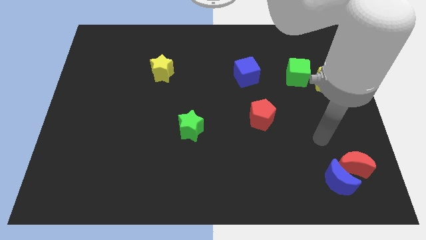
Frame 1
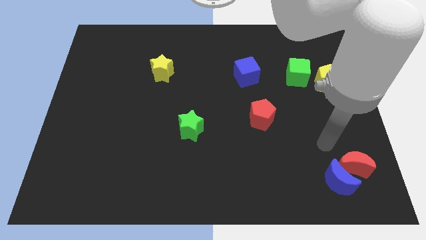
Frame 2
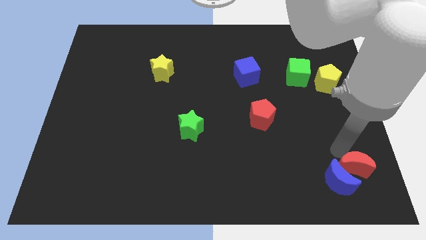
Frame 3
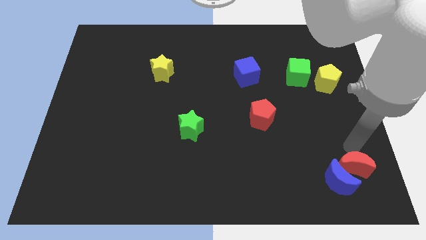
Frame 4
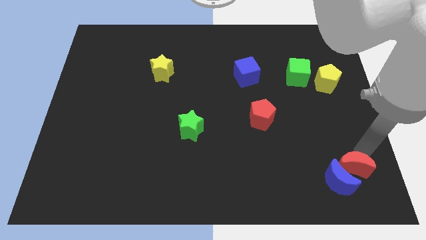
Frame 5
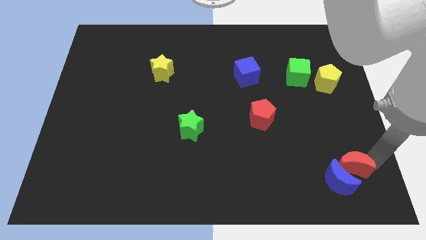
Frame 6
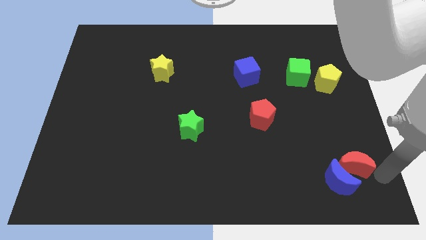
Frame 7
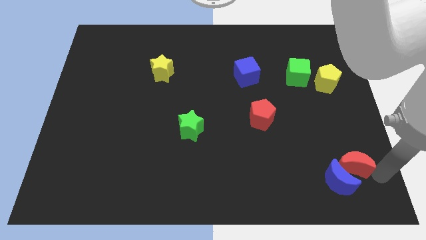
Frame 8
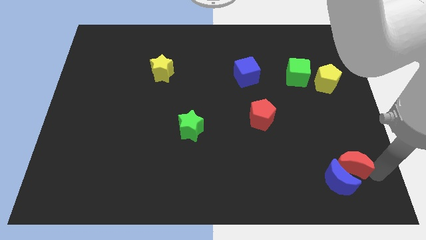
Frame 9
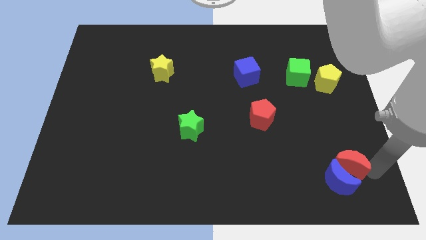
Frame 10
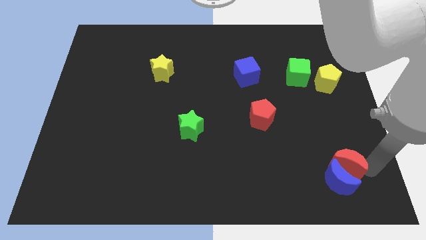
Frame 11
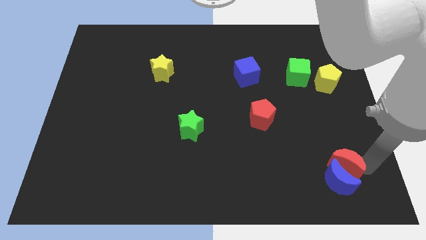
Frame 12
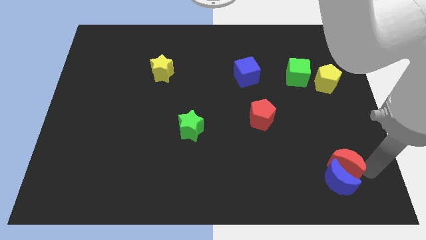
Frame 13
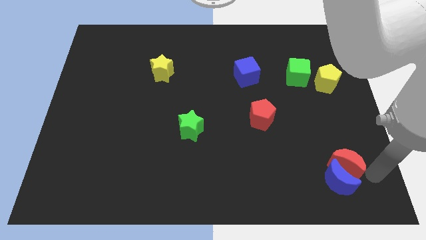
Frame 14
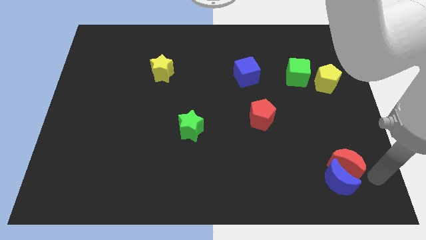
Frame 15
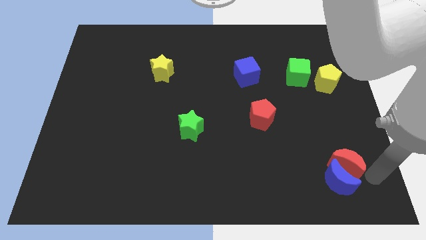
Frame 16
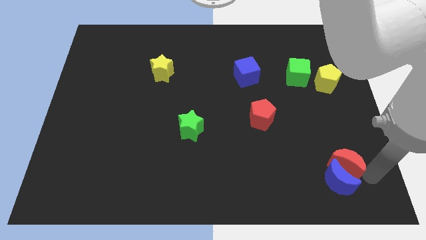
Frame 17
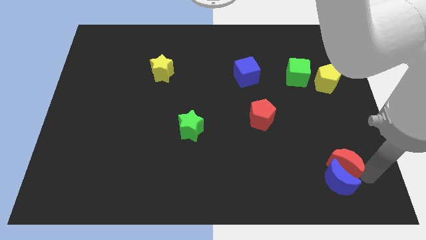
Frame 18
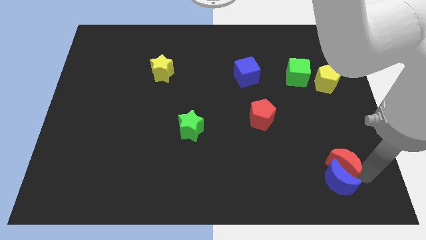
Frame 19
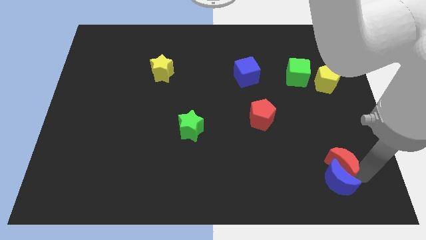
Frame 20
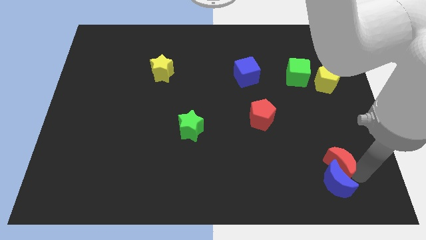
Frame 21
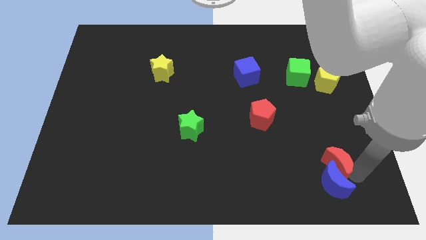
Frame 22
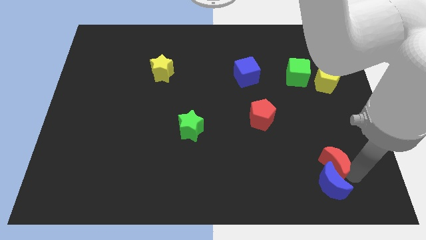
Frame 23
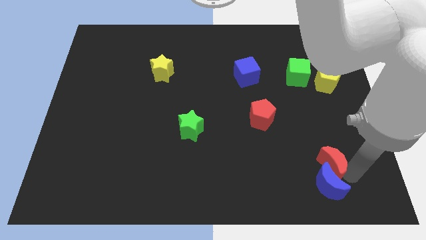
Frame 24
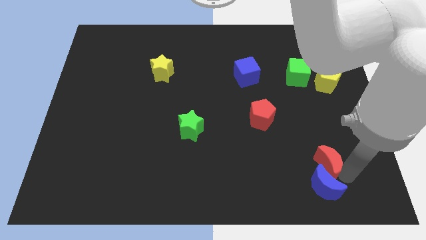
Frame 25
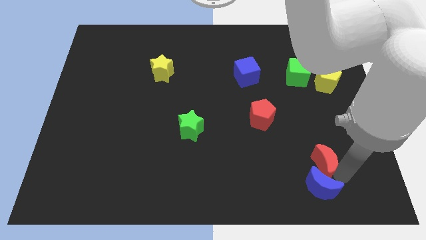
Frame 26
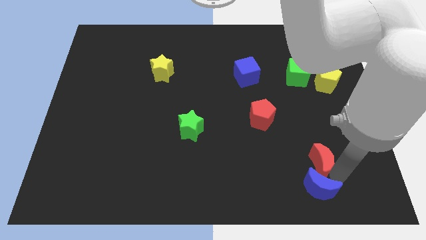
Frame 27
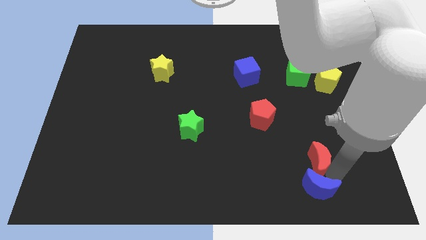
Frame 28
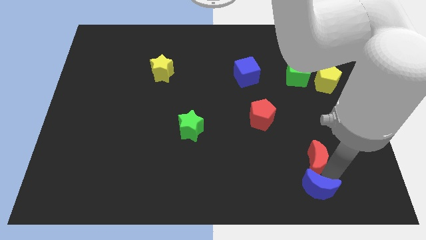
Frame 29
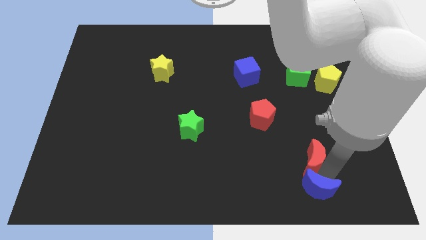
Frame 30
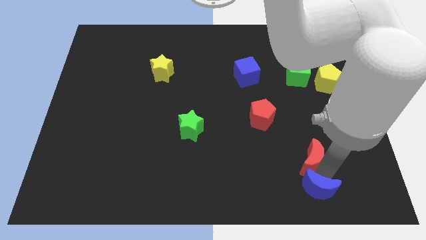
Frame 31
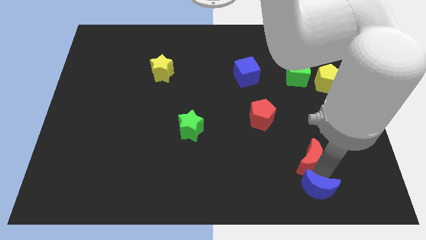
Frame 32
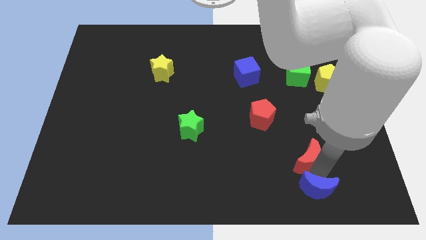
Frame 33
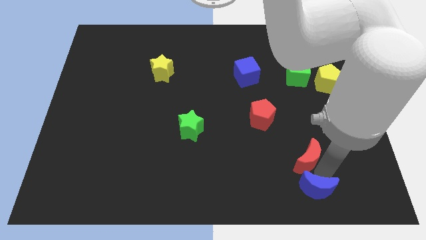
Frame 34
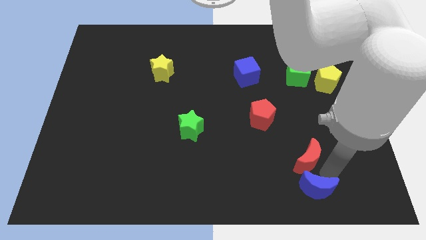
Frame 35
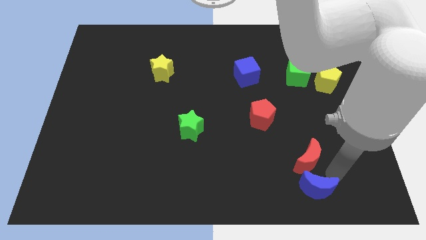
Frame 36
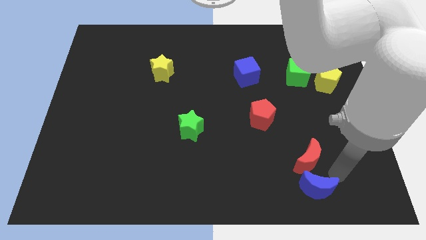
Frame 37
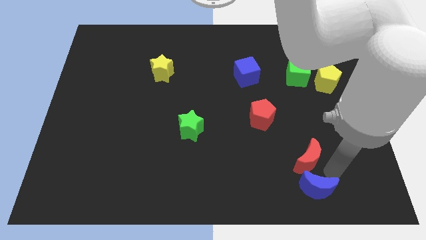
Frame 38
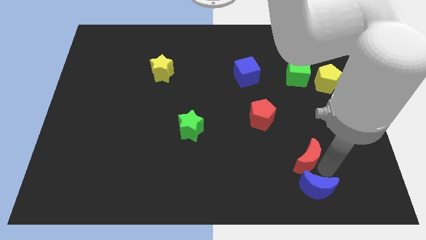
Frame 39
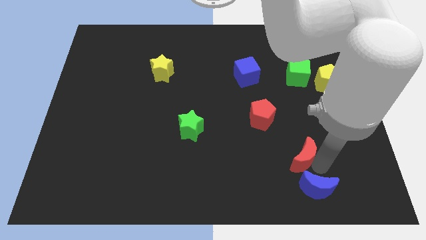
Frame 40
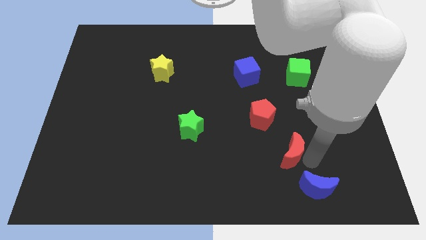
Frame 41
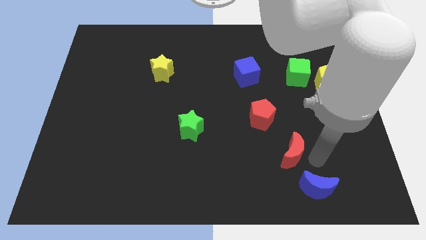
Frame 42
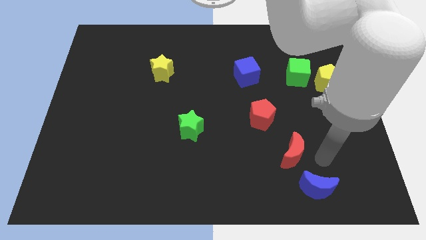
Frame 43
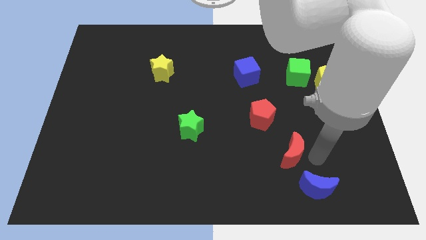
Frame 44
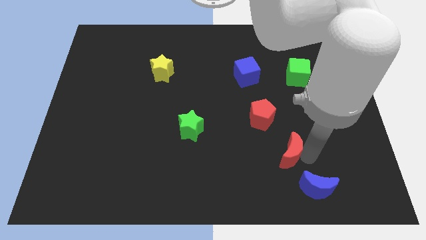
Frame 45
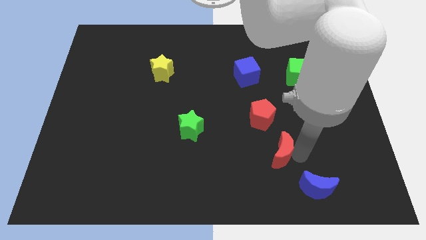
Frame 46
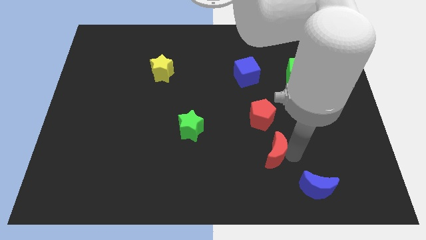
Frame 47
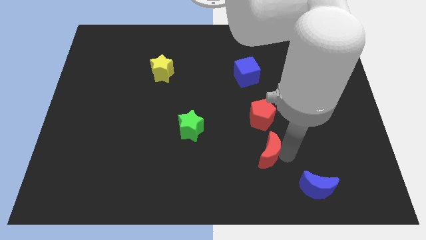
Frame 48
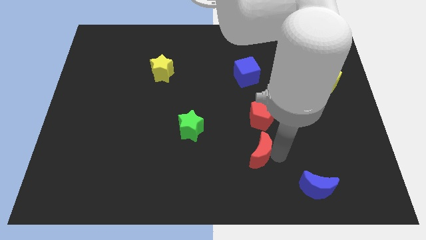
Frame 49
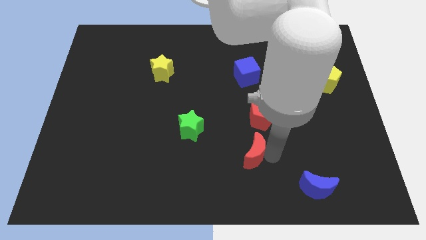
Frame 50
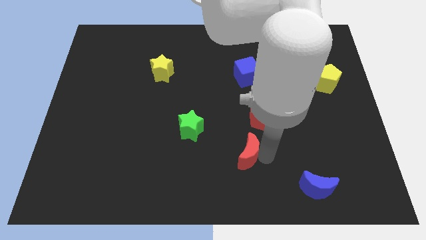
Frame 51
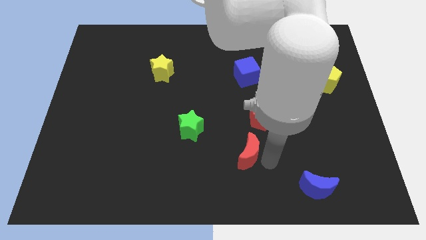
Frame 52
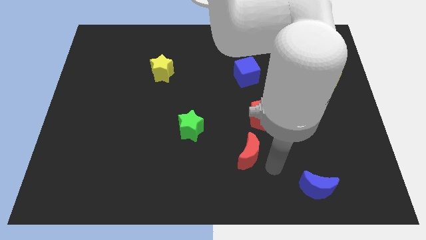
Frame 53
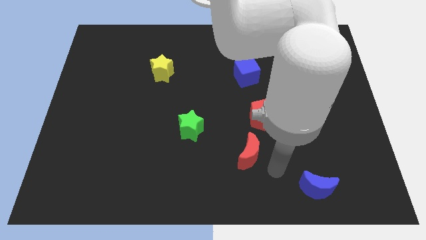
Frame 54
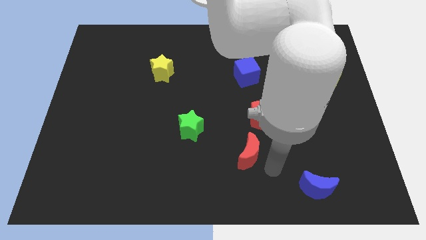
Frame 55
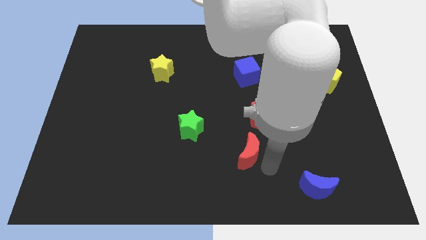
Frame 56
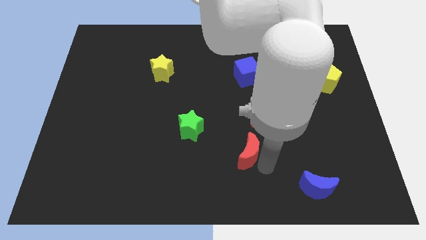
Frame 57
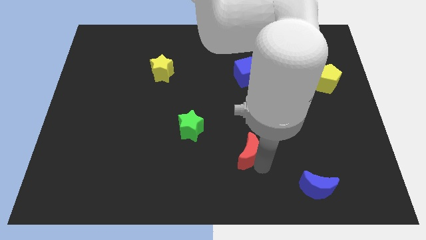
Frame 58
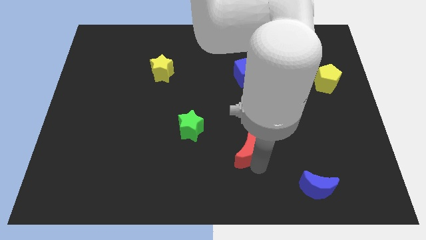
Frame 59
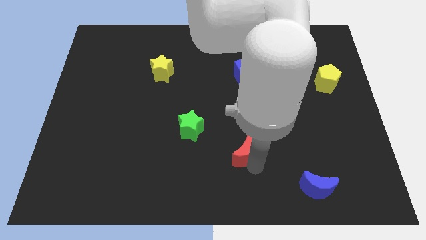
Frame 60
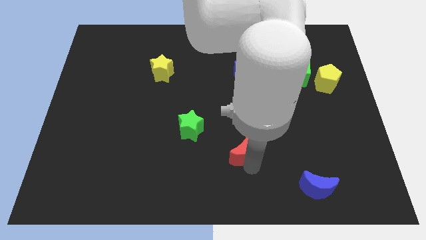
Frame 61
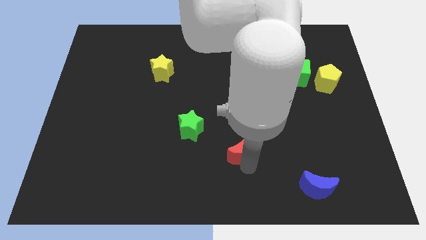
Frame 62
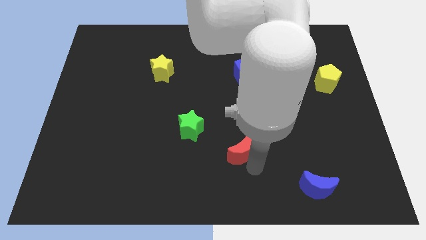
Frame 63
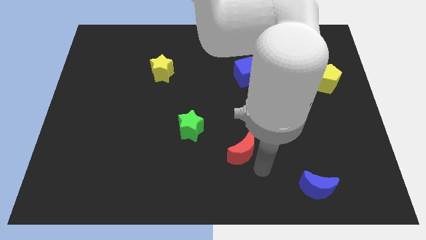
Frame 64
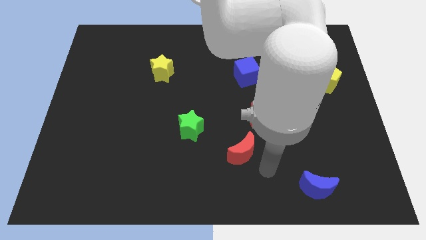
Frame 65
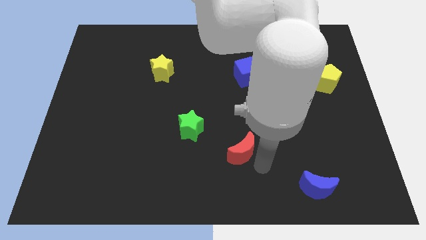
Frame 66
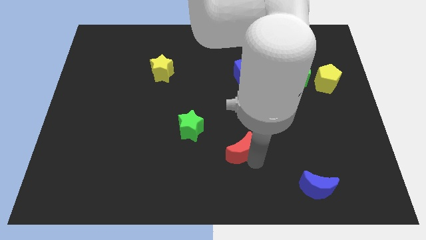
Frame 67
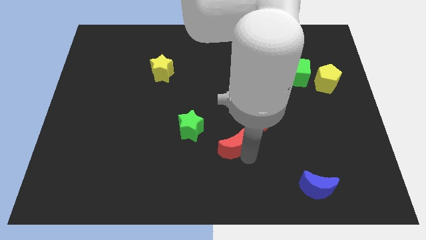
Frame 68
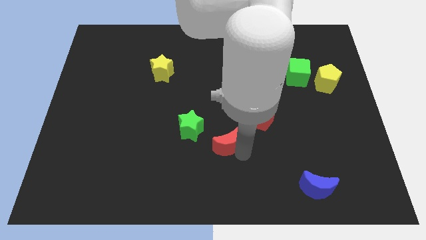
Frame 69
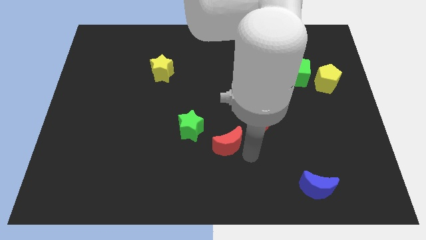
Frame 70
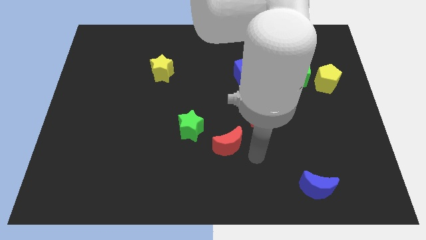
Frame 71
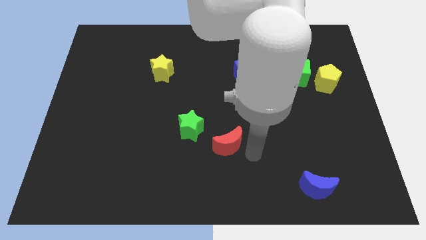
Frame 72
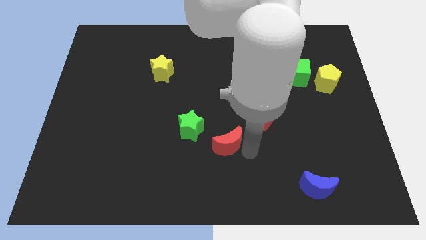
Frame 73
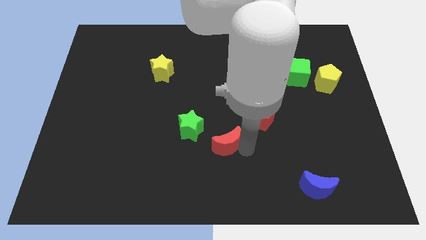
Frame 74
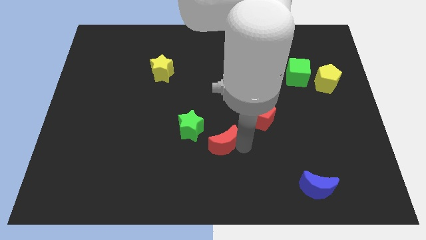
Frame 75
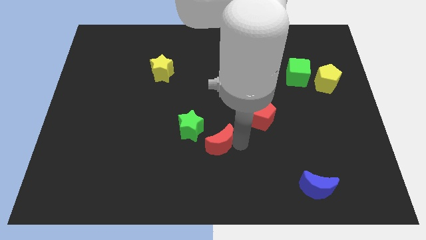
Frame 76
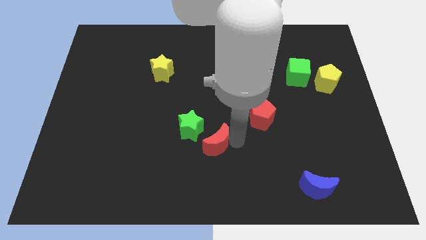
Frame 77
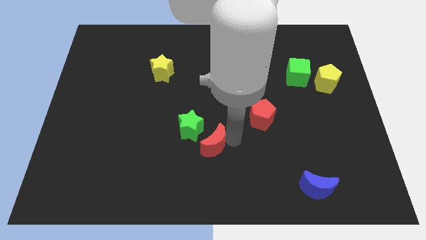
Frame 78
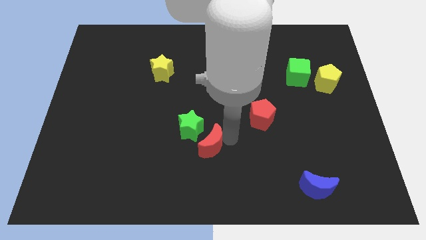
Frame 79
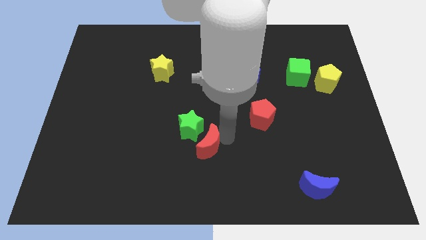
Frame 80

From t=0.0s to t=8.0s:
put the red moon close to the green star
